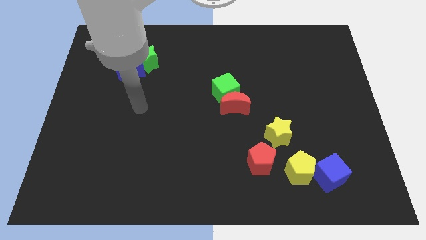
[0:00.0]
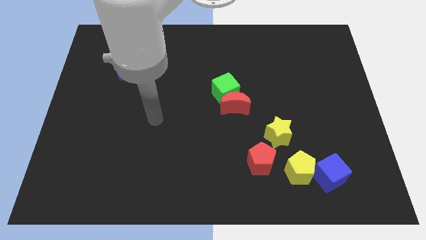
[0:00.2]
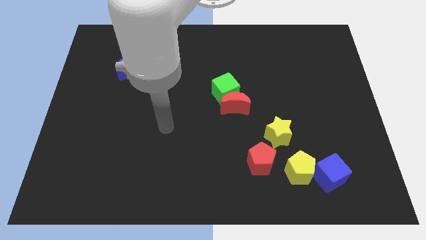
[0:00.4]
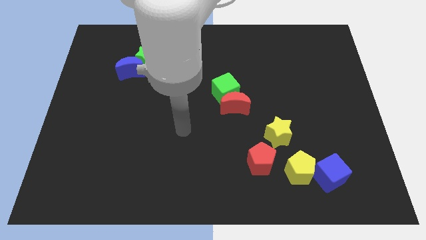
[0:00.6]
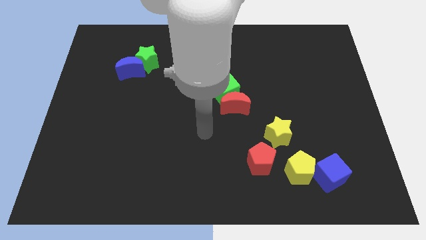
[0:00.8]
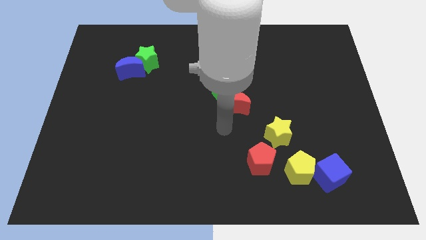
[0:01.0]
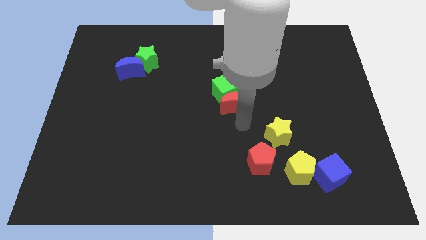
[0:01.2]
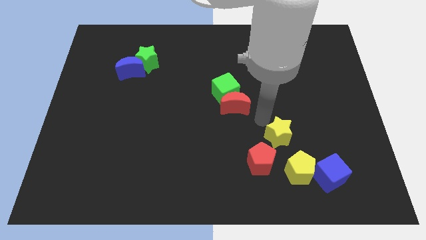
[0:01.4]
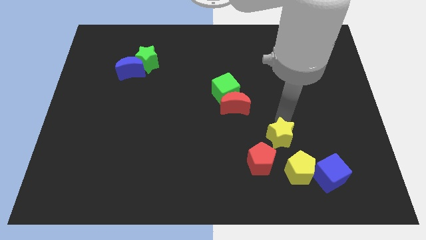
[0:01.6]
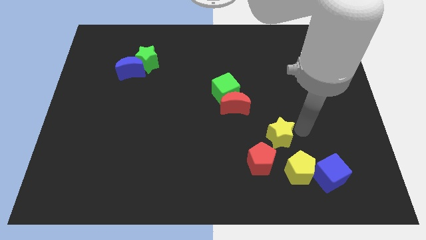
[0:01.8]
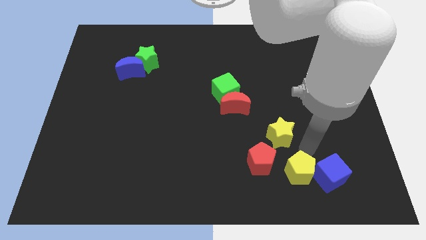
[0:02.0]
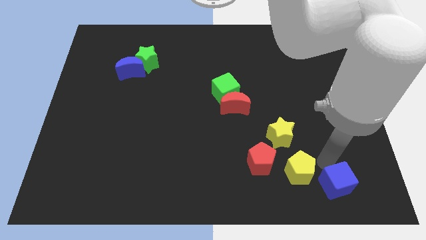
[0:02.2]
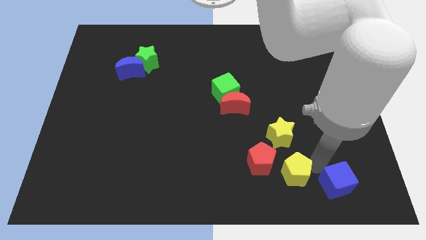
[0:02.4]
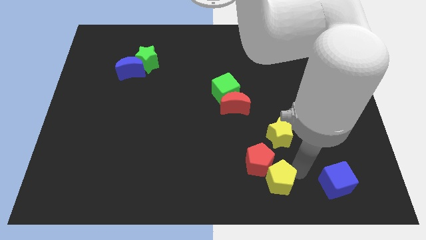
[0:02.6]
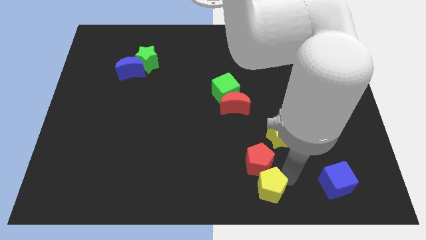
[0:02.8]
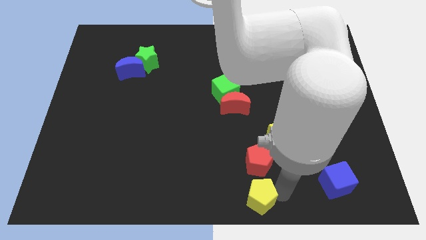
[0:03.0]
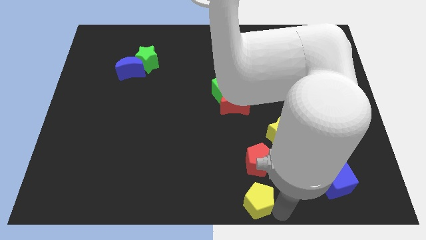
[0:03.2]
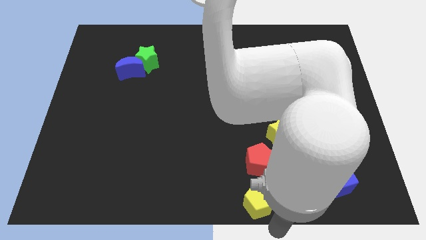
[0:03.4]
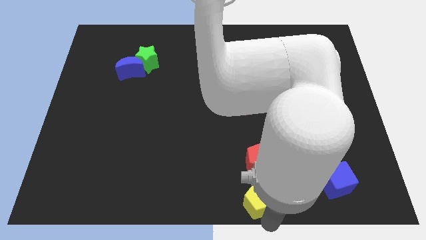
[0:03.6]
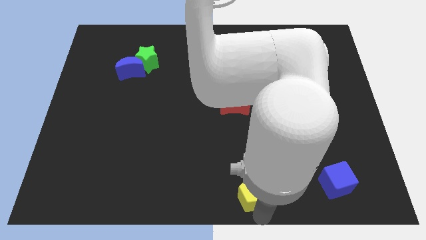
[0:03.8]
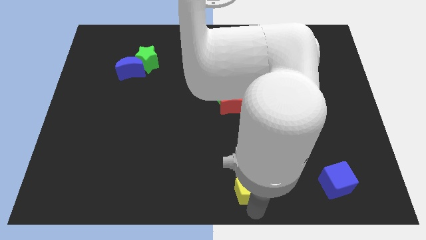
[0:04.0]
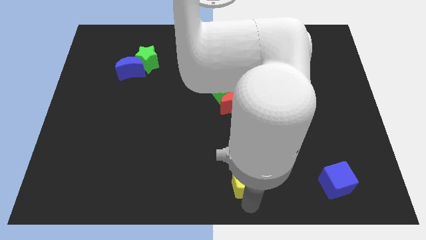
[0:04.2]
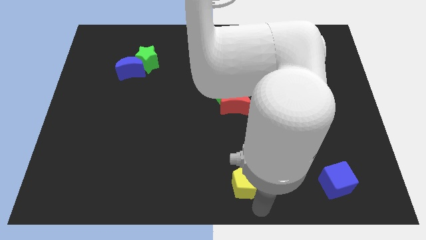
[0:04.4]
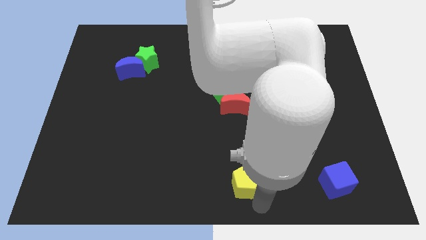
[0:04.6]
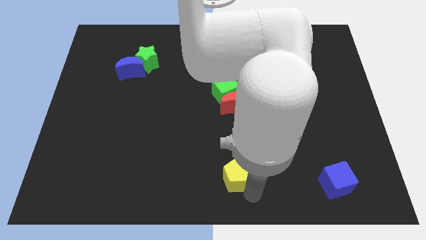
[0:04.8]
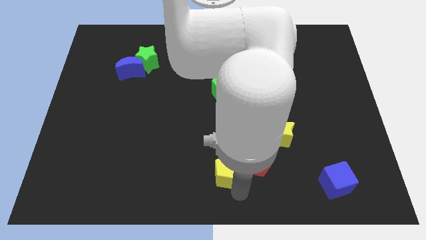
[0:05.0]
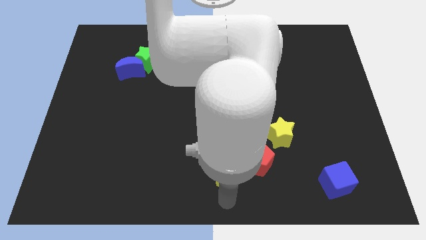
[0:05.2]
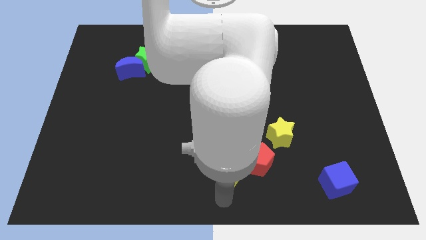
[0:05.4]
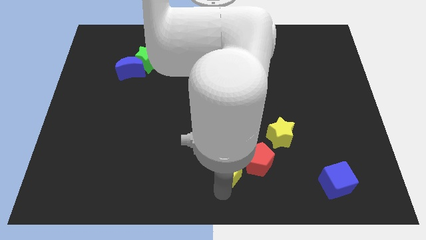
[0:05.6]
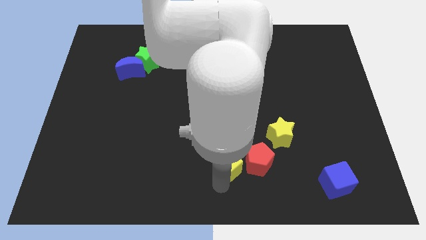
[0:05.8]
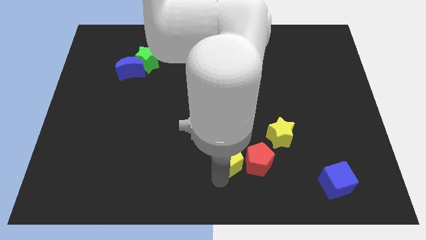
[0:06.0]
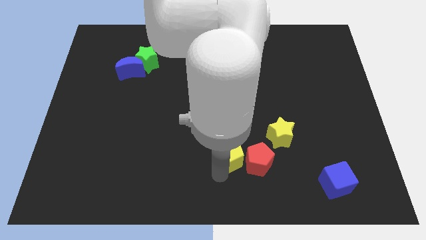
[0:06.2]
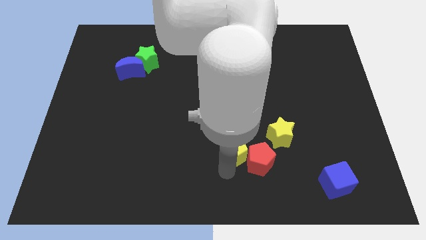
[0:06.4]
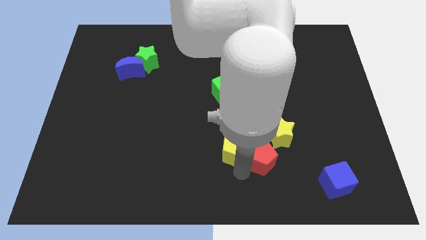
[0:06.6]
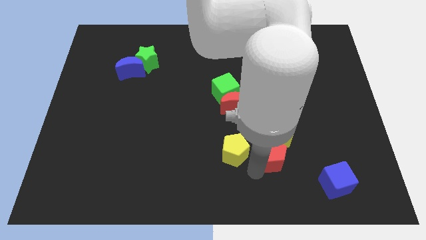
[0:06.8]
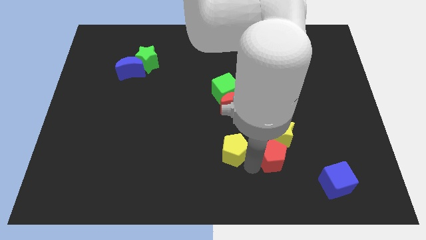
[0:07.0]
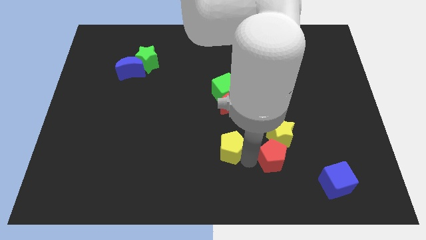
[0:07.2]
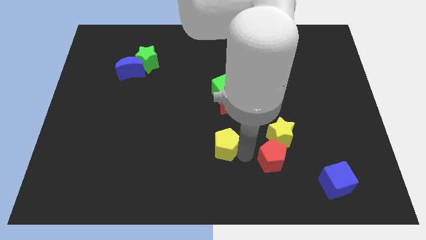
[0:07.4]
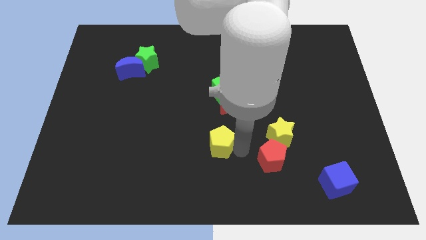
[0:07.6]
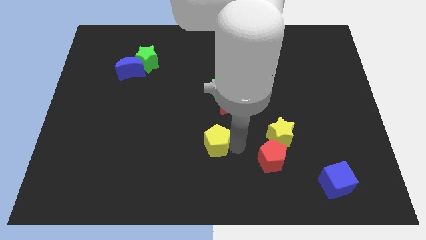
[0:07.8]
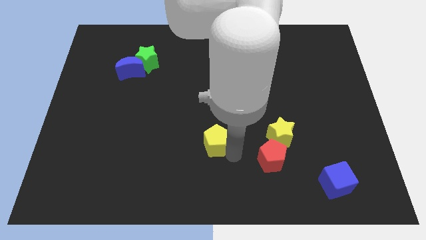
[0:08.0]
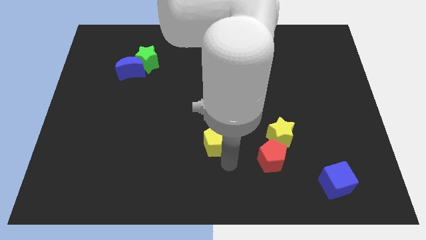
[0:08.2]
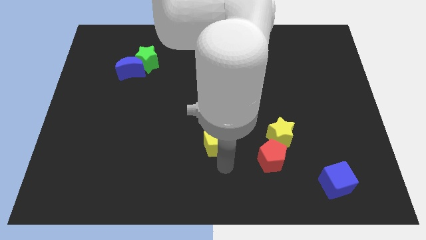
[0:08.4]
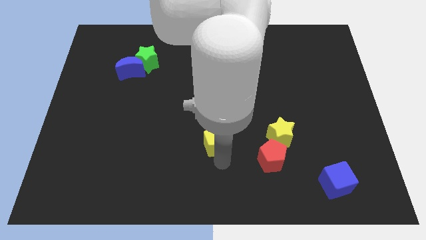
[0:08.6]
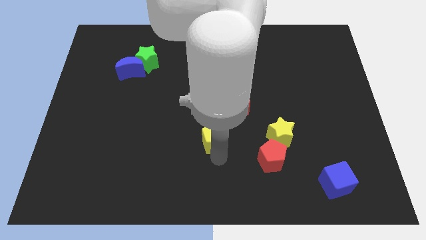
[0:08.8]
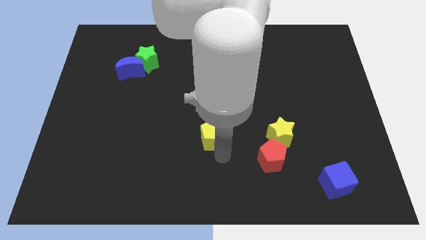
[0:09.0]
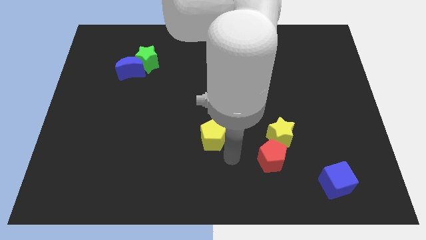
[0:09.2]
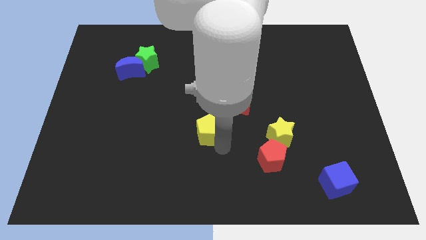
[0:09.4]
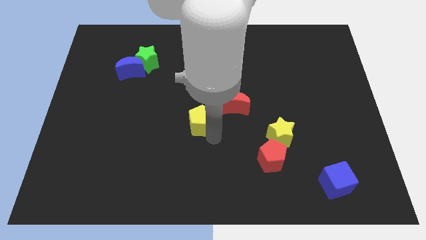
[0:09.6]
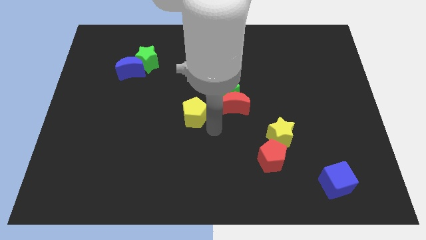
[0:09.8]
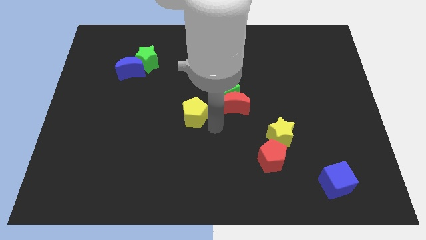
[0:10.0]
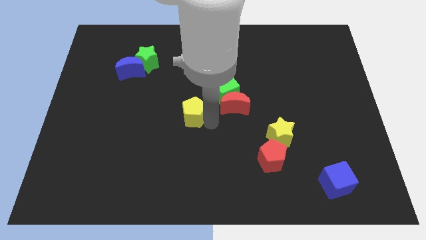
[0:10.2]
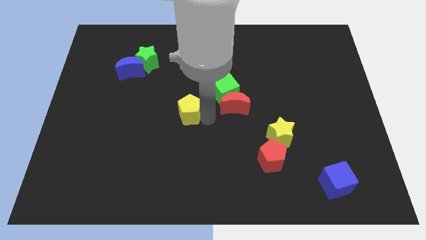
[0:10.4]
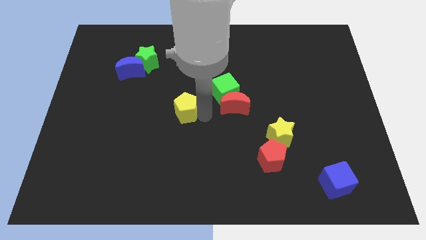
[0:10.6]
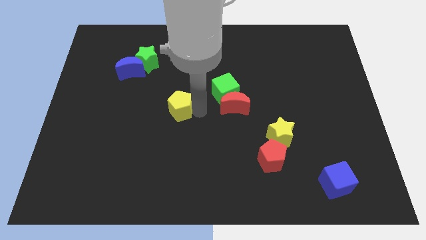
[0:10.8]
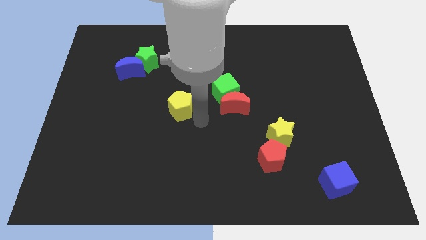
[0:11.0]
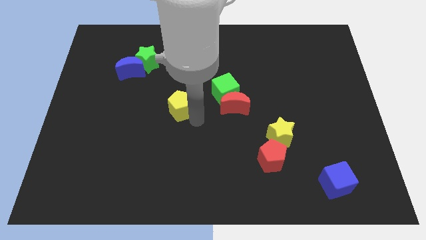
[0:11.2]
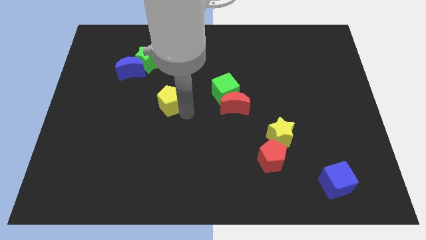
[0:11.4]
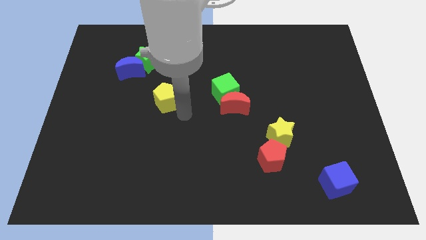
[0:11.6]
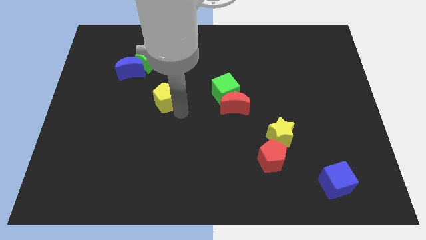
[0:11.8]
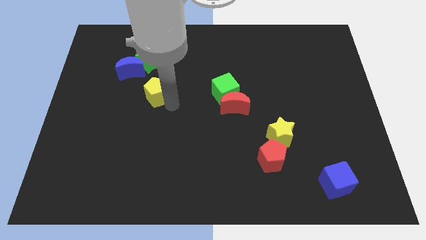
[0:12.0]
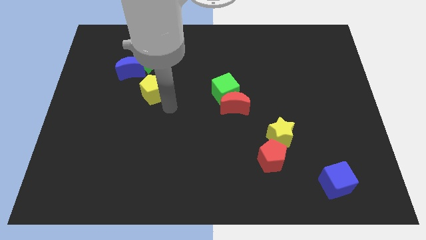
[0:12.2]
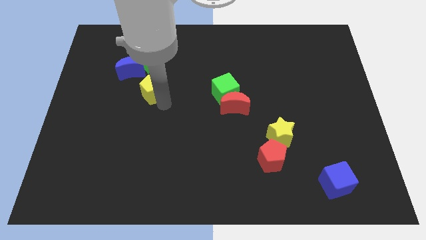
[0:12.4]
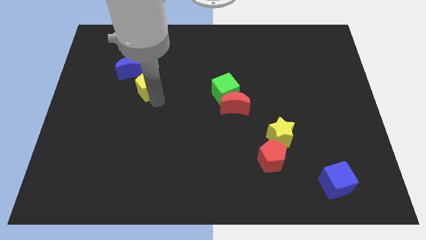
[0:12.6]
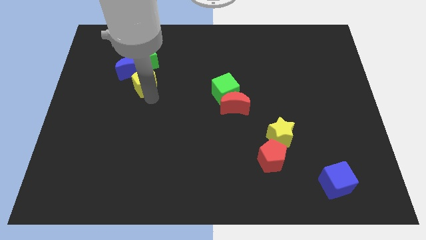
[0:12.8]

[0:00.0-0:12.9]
put the yellow pentagon close to the blue moon

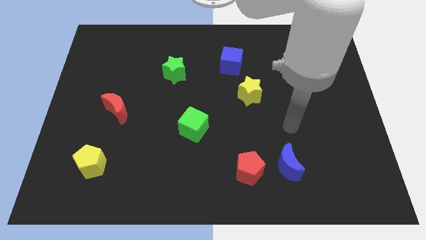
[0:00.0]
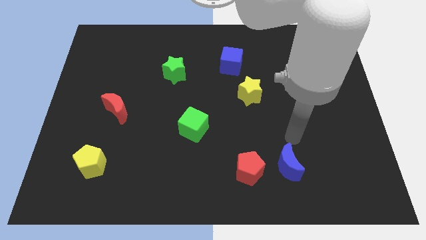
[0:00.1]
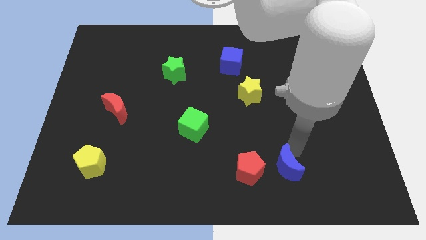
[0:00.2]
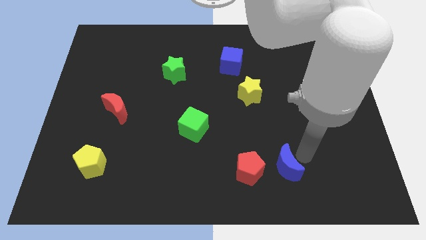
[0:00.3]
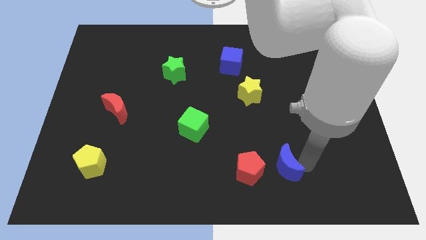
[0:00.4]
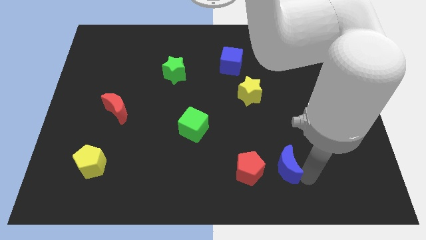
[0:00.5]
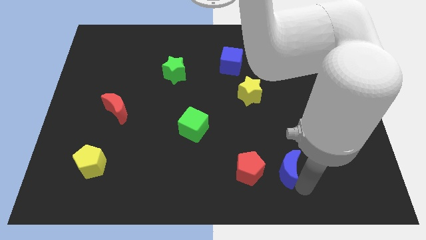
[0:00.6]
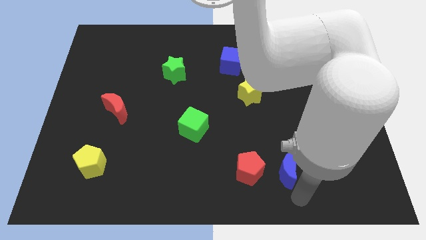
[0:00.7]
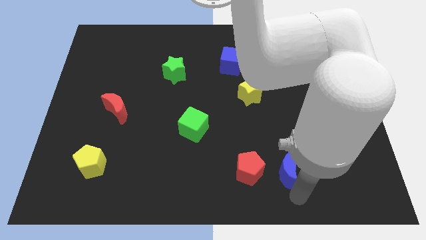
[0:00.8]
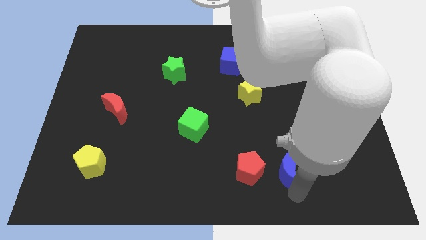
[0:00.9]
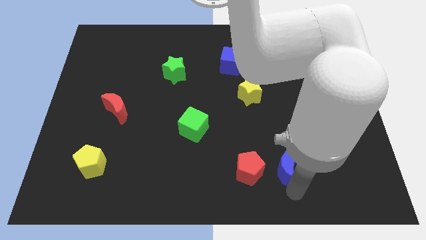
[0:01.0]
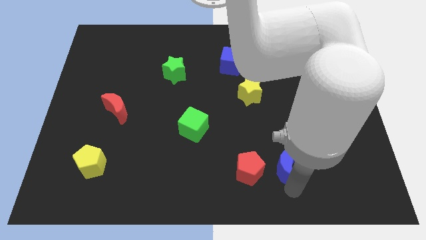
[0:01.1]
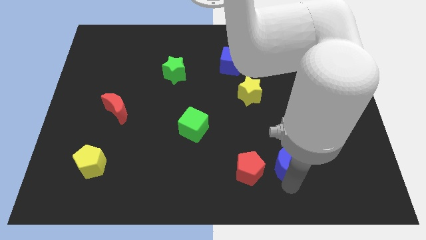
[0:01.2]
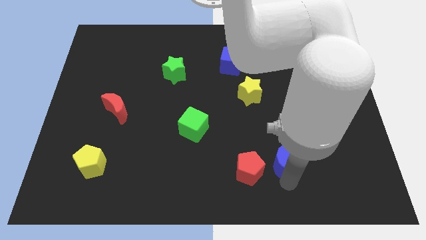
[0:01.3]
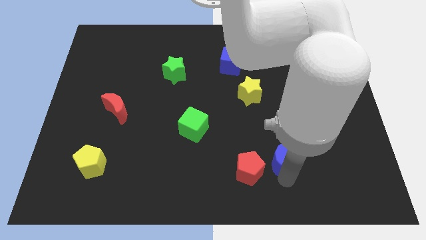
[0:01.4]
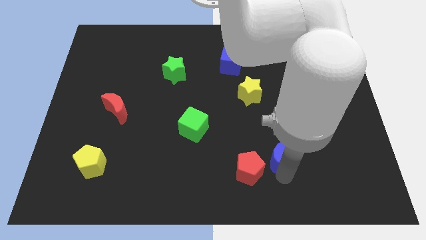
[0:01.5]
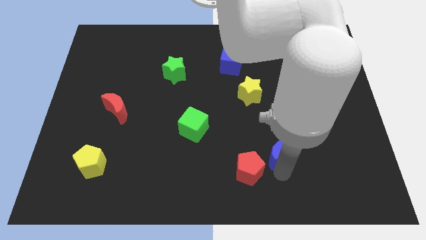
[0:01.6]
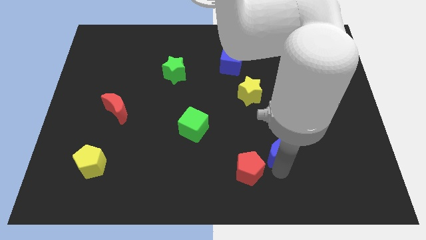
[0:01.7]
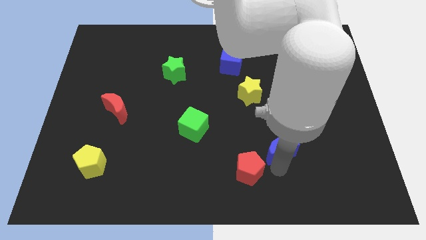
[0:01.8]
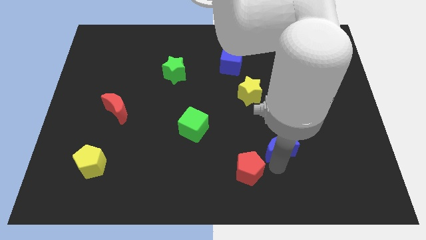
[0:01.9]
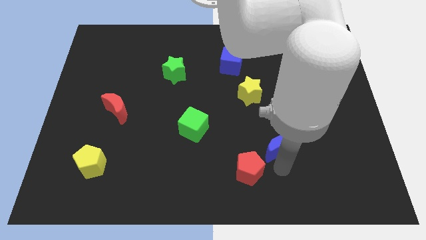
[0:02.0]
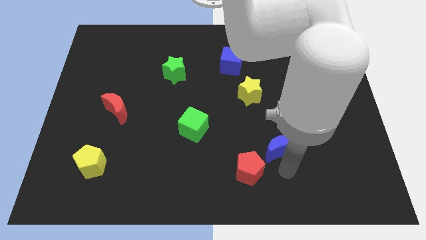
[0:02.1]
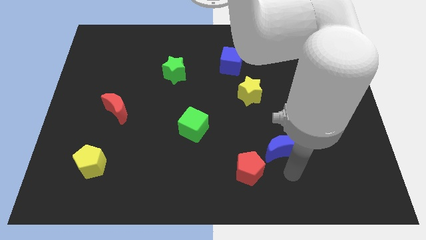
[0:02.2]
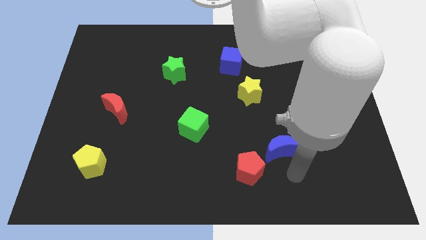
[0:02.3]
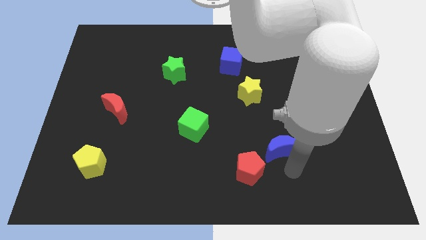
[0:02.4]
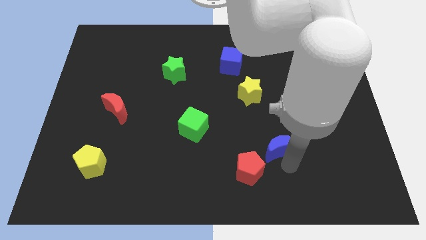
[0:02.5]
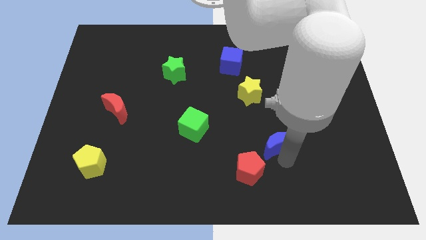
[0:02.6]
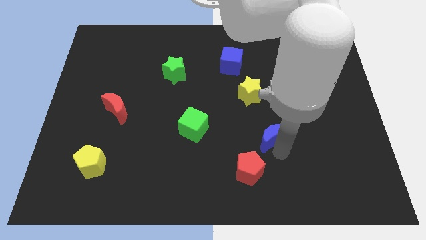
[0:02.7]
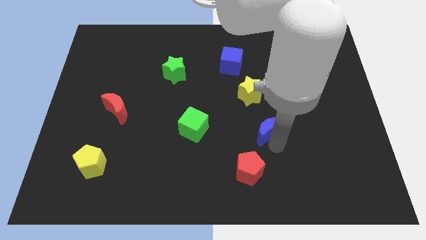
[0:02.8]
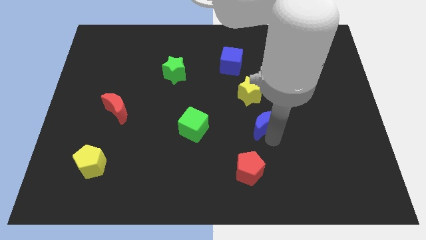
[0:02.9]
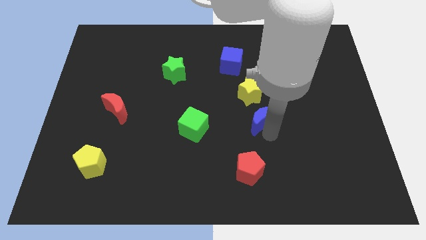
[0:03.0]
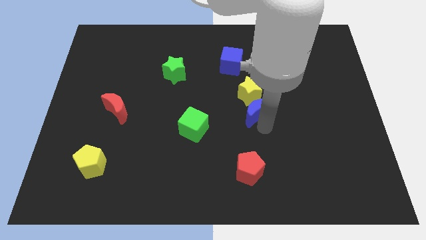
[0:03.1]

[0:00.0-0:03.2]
slide the blue moon close to the yellow star
